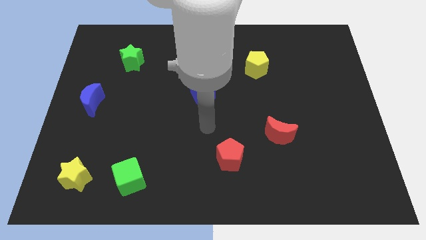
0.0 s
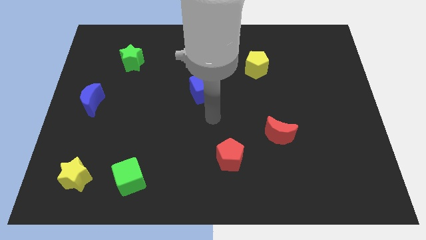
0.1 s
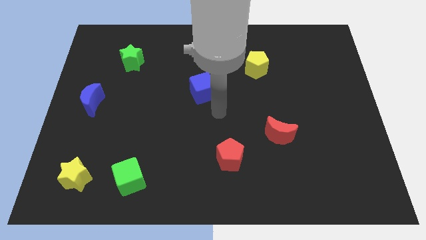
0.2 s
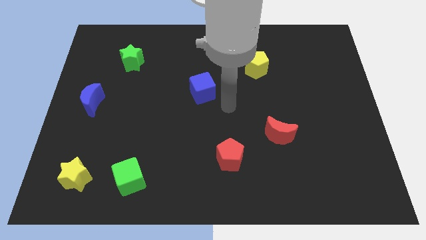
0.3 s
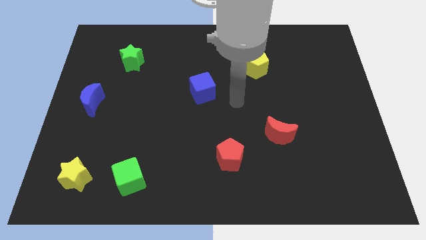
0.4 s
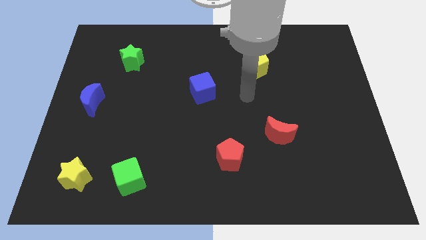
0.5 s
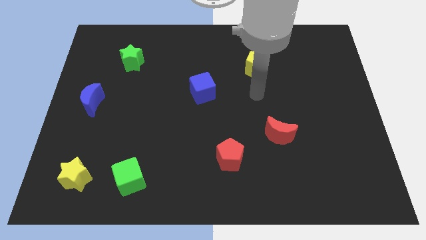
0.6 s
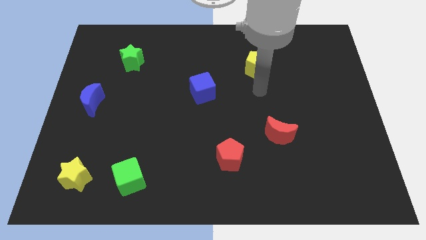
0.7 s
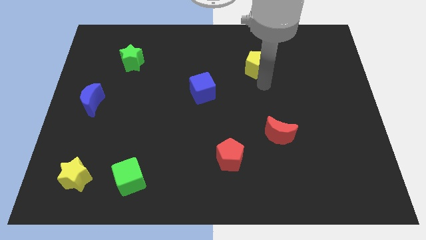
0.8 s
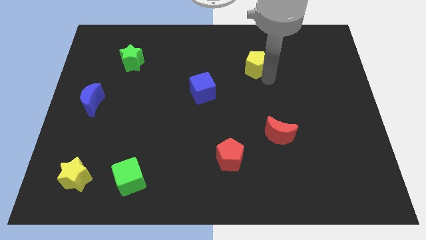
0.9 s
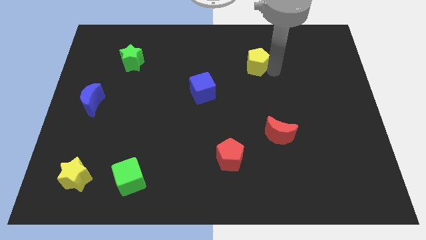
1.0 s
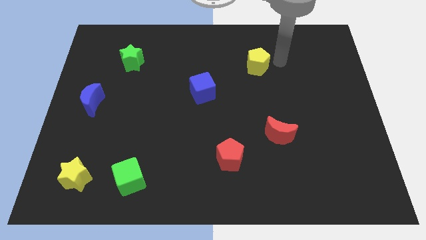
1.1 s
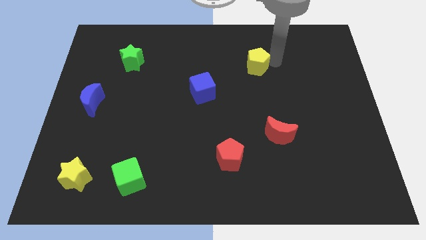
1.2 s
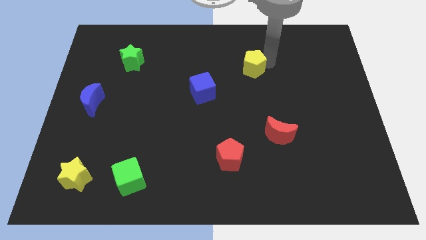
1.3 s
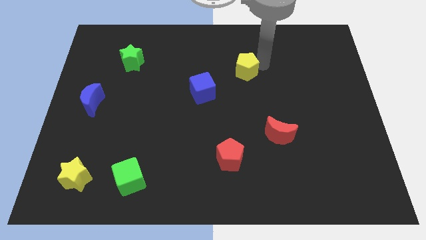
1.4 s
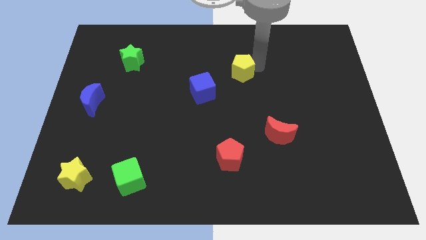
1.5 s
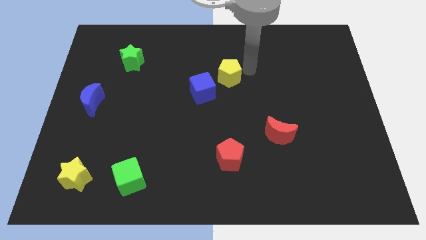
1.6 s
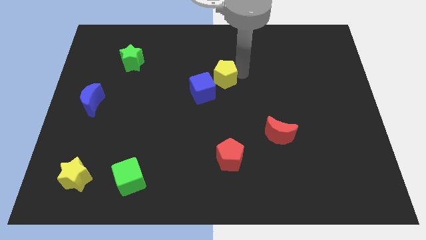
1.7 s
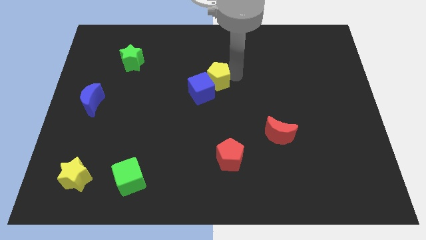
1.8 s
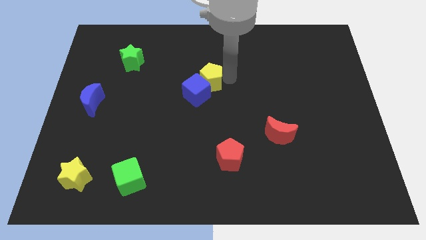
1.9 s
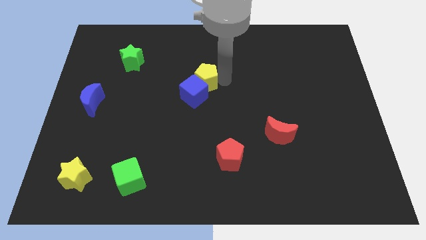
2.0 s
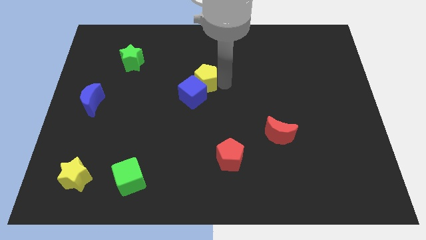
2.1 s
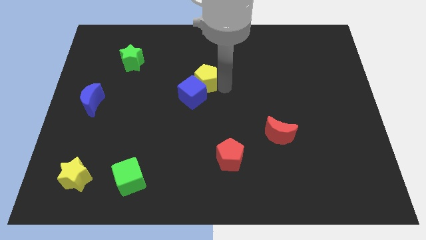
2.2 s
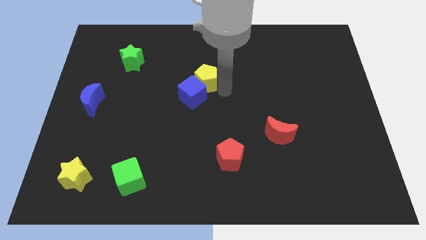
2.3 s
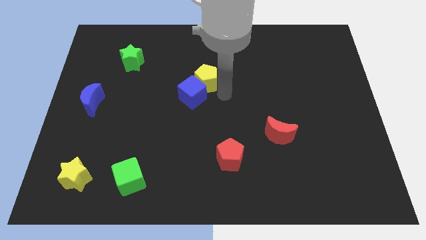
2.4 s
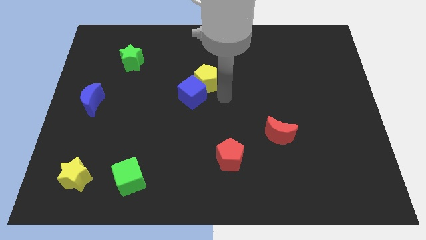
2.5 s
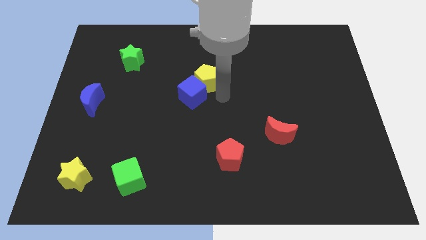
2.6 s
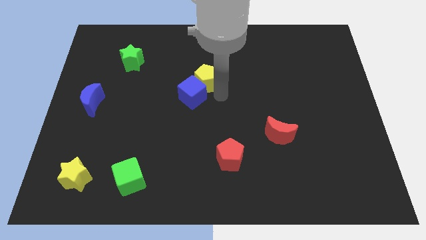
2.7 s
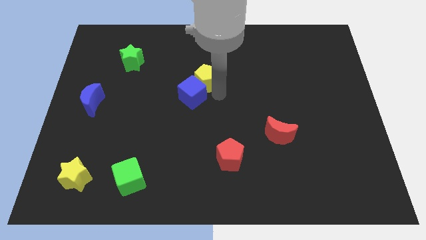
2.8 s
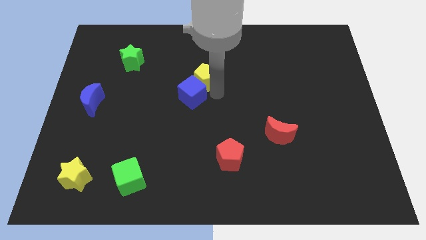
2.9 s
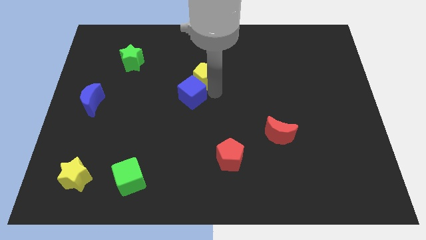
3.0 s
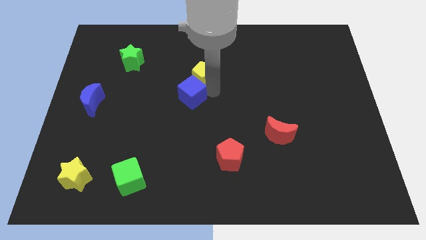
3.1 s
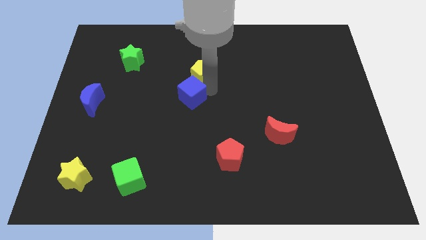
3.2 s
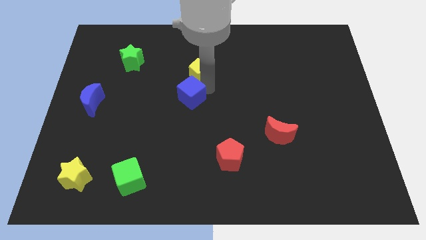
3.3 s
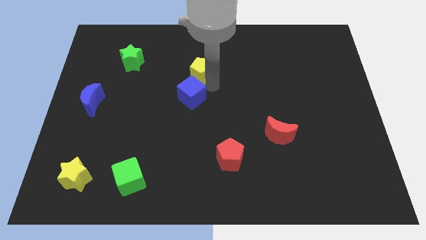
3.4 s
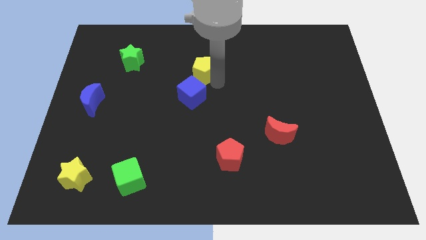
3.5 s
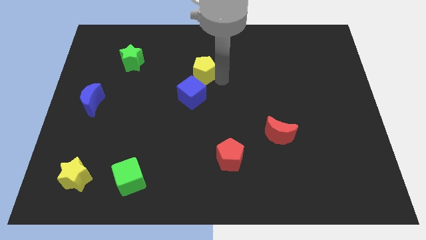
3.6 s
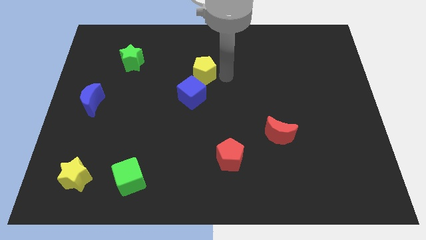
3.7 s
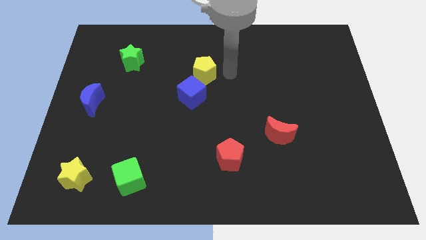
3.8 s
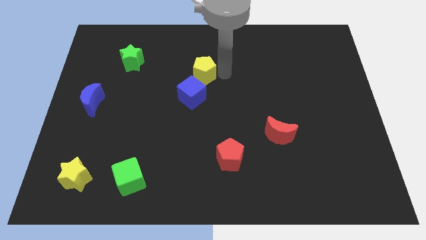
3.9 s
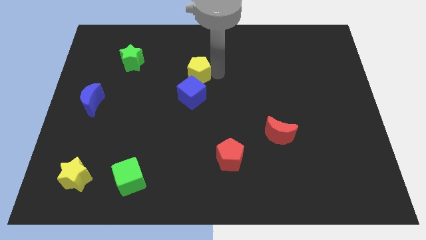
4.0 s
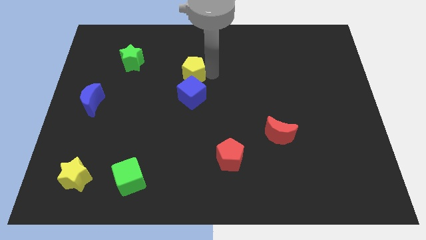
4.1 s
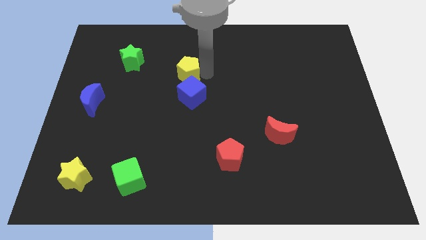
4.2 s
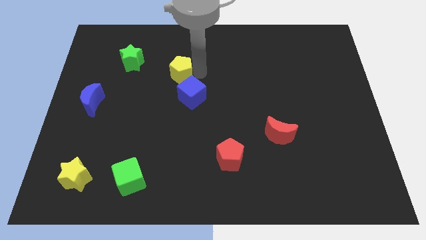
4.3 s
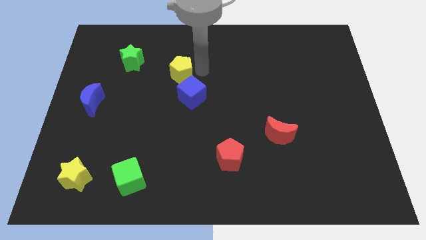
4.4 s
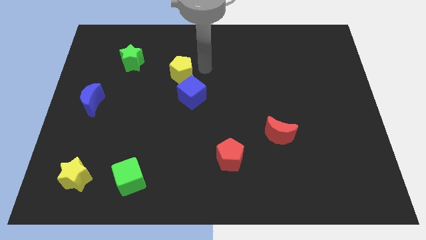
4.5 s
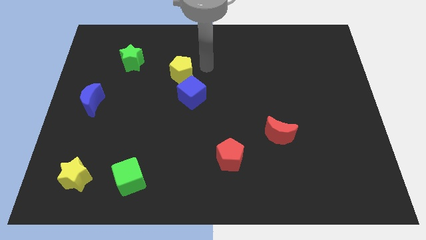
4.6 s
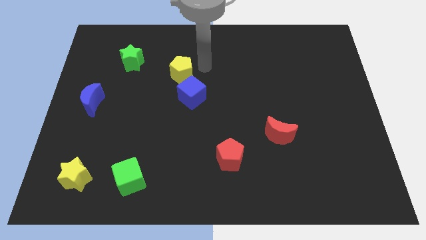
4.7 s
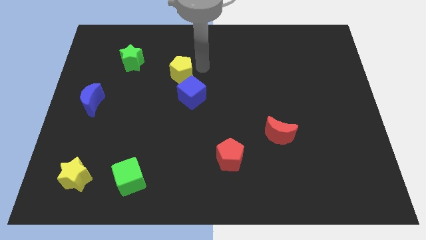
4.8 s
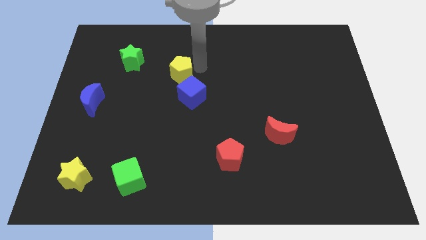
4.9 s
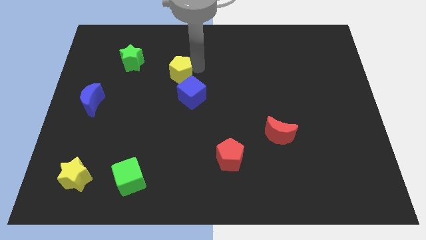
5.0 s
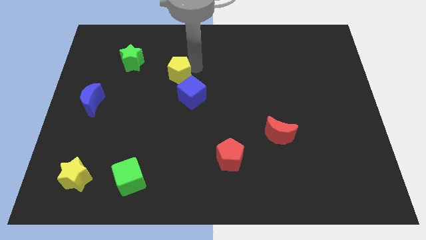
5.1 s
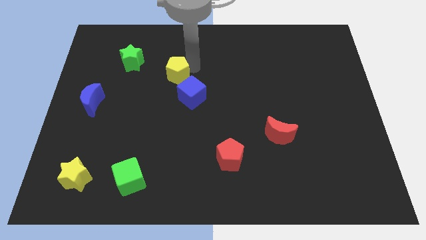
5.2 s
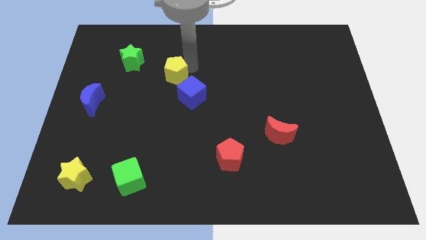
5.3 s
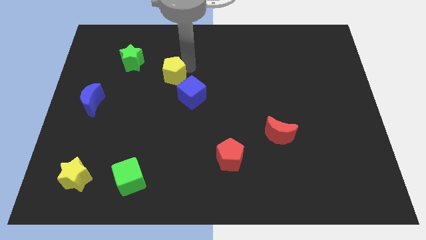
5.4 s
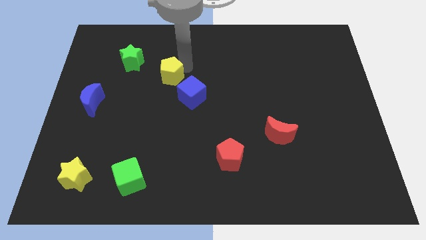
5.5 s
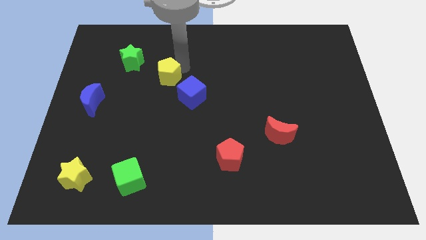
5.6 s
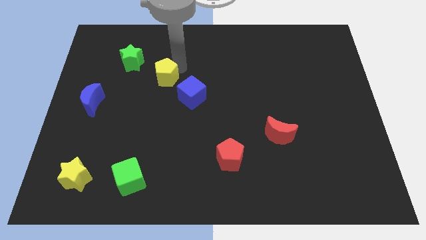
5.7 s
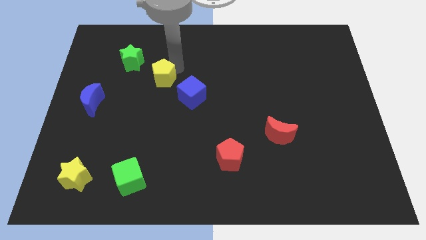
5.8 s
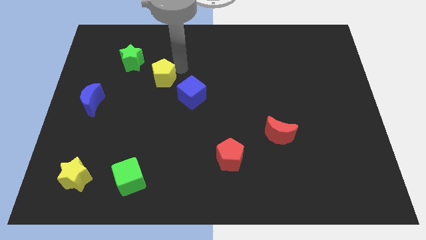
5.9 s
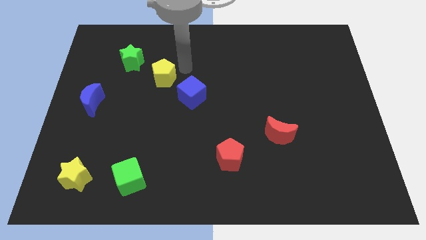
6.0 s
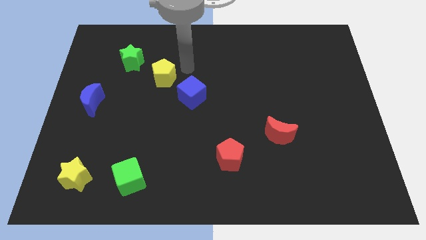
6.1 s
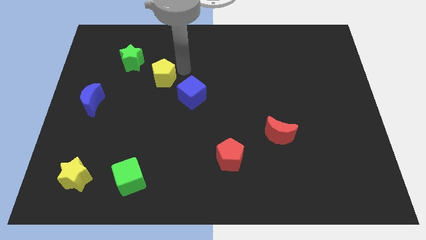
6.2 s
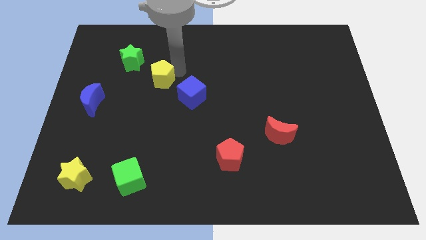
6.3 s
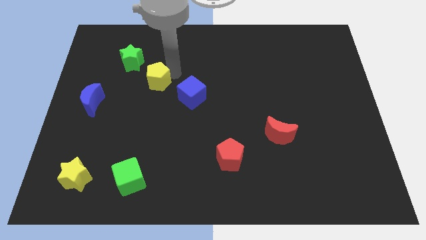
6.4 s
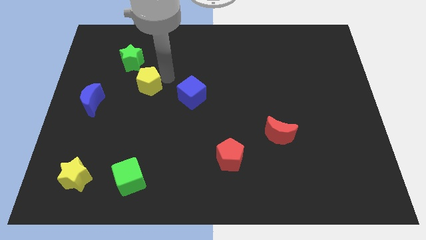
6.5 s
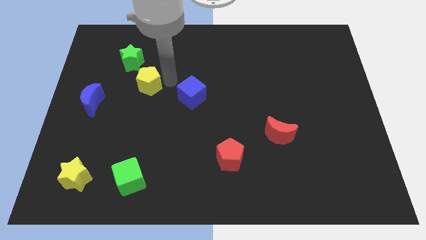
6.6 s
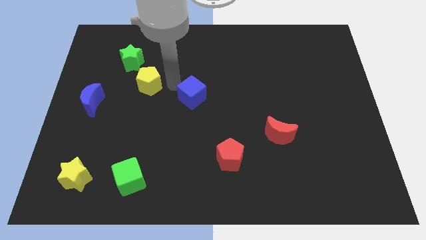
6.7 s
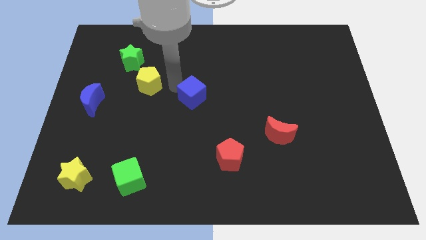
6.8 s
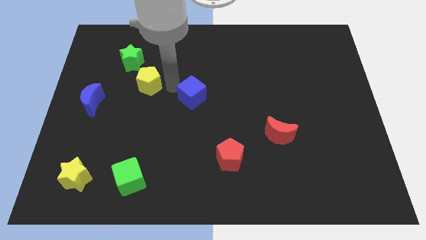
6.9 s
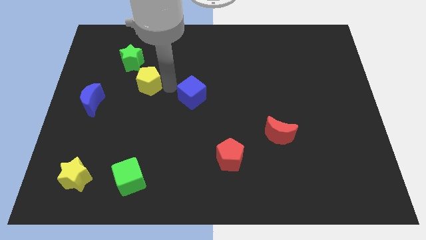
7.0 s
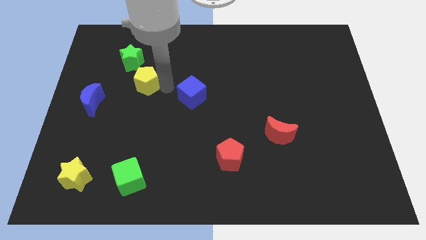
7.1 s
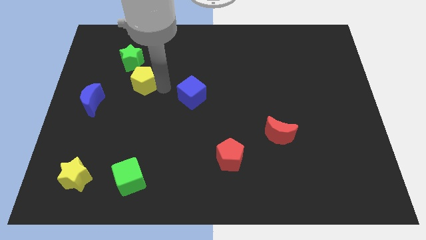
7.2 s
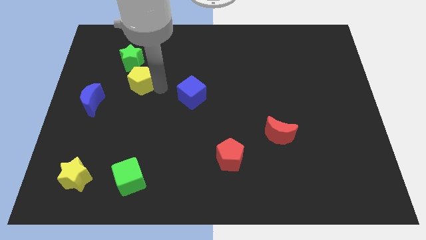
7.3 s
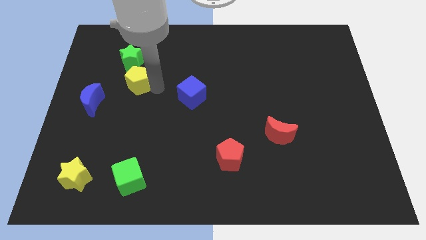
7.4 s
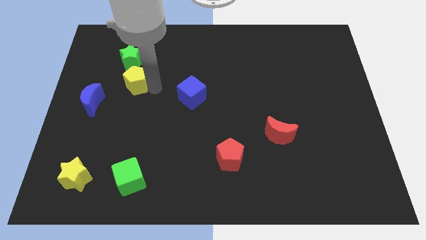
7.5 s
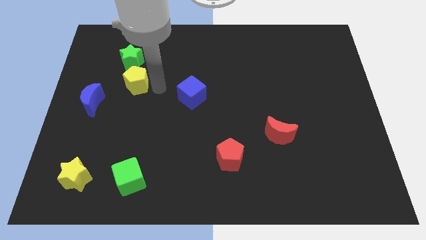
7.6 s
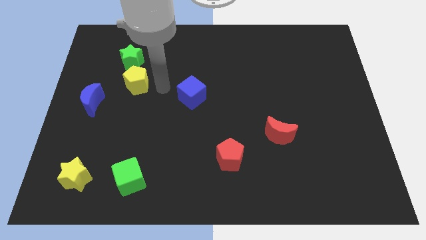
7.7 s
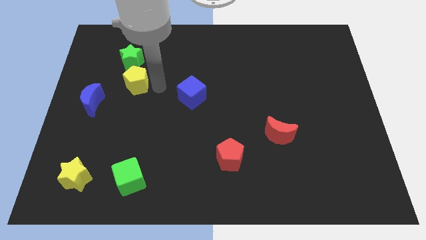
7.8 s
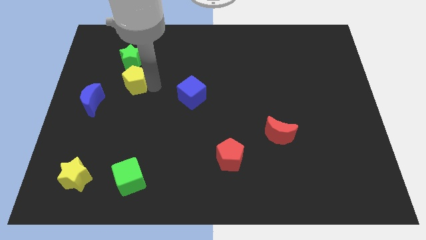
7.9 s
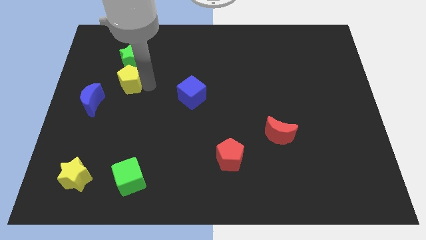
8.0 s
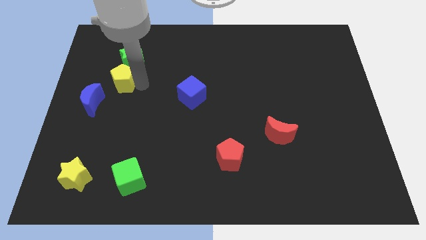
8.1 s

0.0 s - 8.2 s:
push the yellow pentagon to the bottom left of the green star
